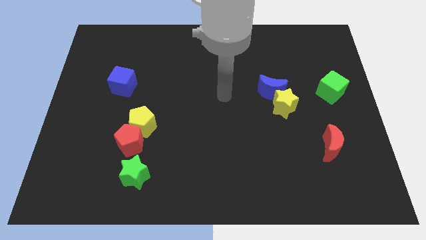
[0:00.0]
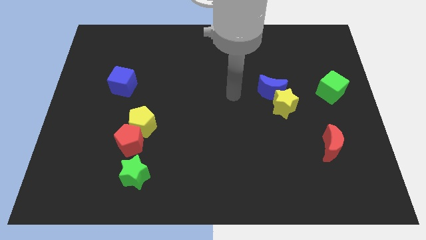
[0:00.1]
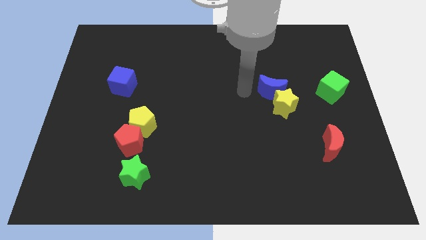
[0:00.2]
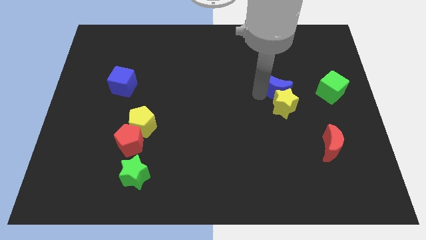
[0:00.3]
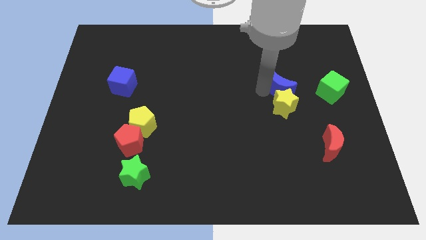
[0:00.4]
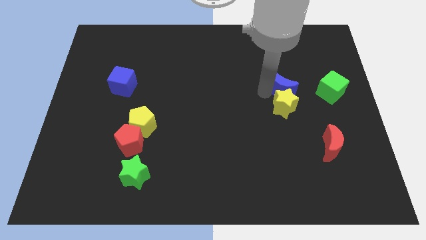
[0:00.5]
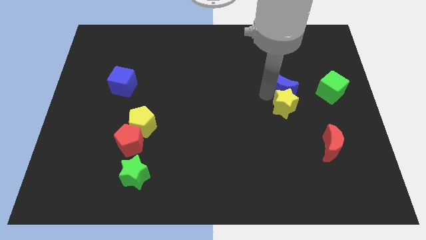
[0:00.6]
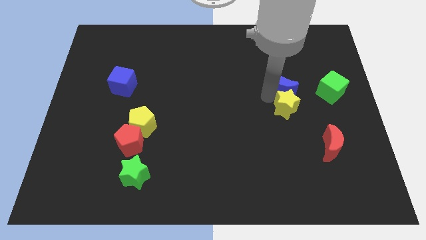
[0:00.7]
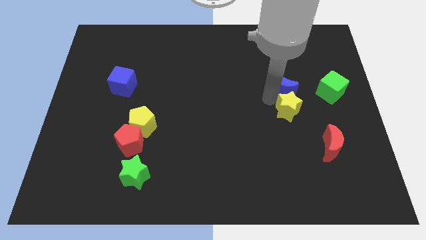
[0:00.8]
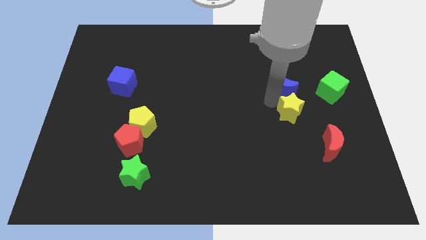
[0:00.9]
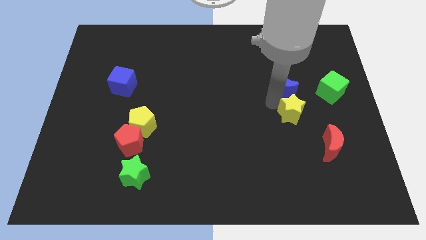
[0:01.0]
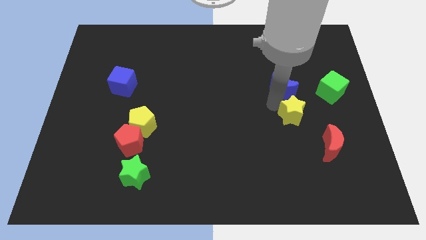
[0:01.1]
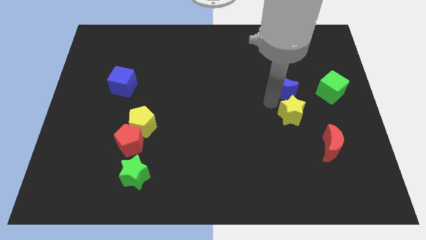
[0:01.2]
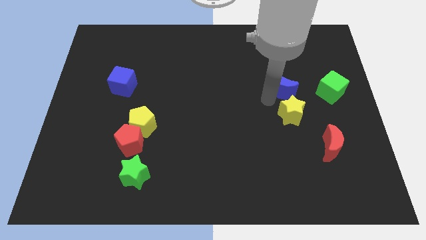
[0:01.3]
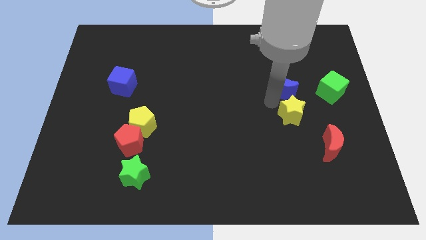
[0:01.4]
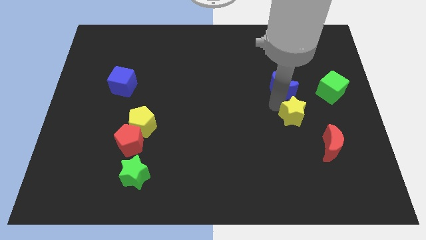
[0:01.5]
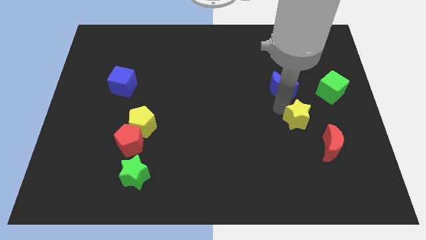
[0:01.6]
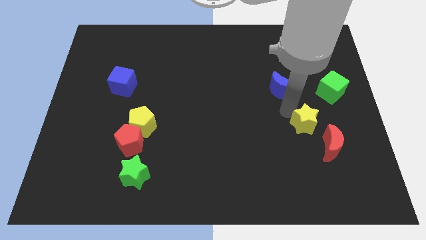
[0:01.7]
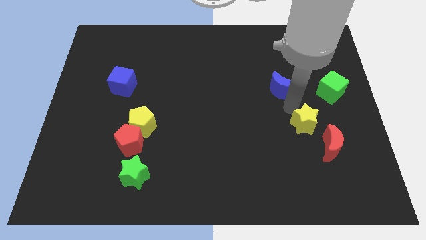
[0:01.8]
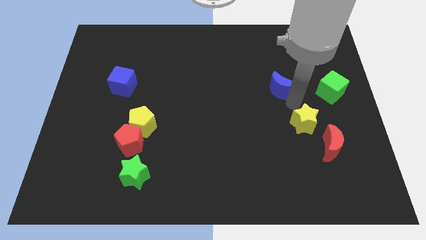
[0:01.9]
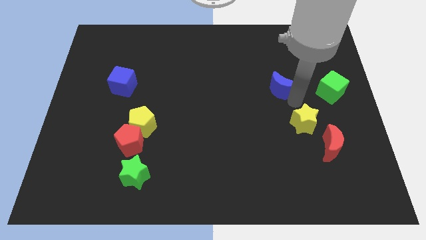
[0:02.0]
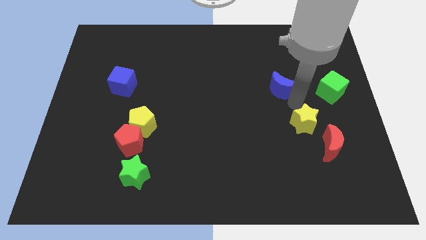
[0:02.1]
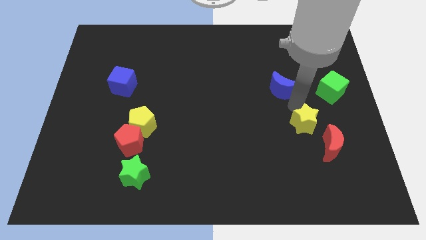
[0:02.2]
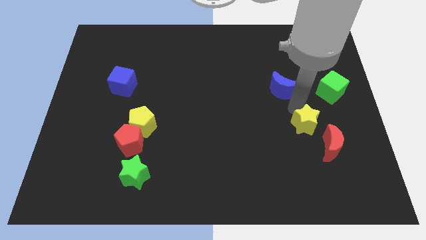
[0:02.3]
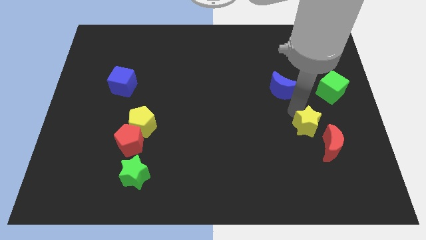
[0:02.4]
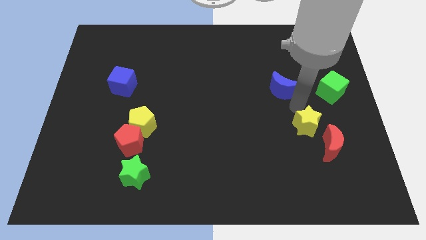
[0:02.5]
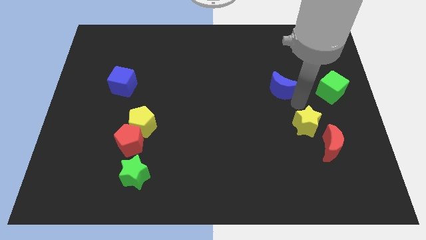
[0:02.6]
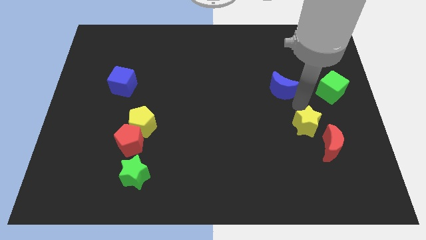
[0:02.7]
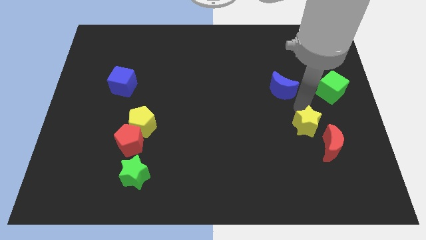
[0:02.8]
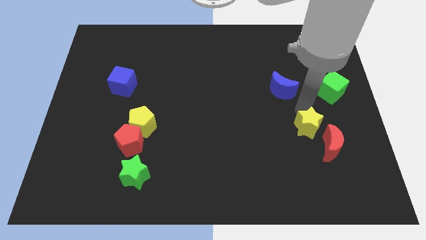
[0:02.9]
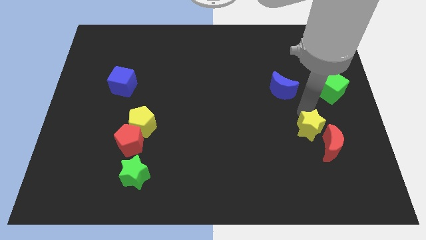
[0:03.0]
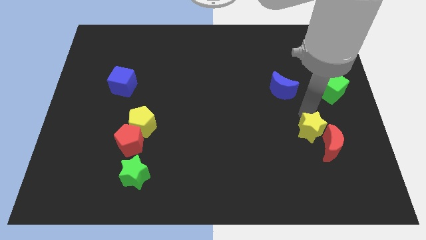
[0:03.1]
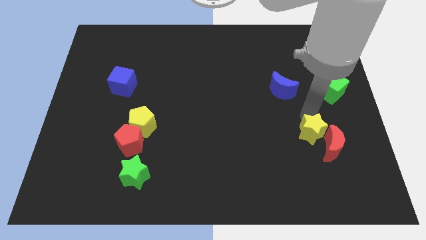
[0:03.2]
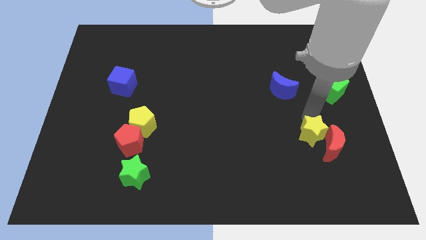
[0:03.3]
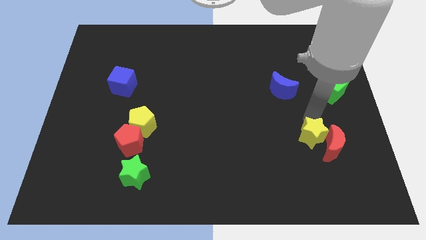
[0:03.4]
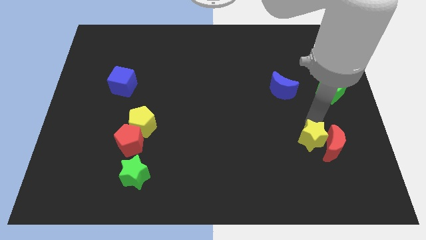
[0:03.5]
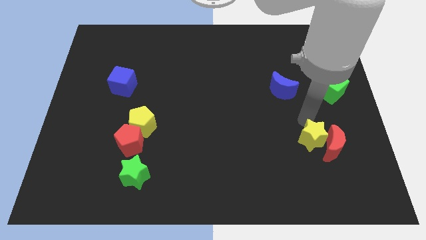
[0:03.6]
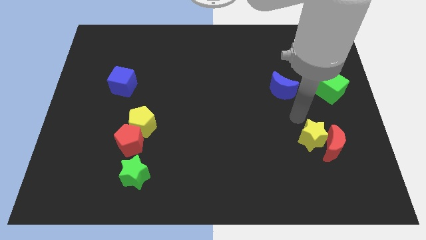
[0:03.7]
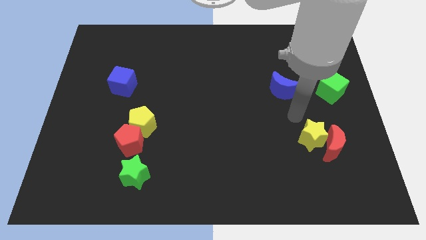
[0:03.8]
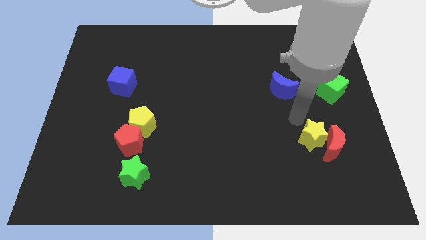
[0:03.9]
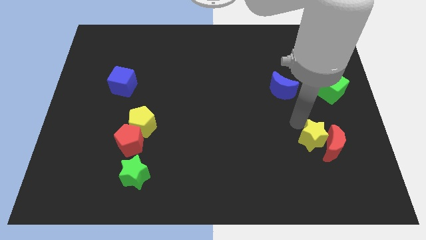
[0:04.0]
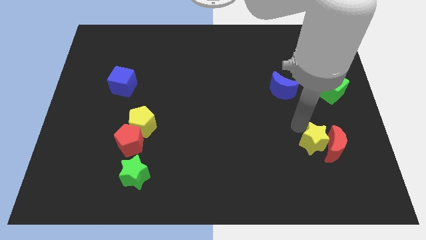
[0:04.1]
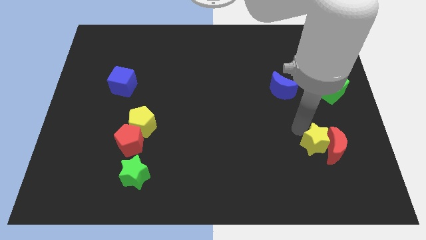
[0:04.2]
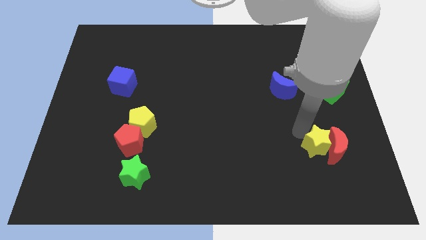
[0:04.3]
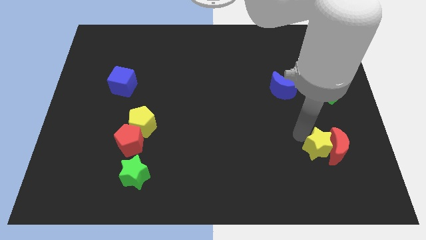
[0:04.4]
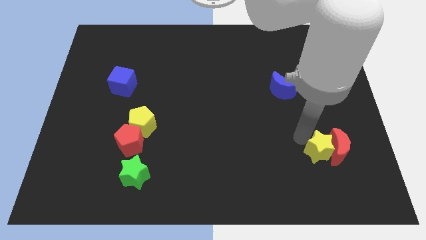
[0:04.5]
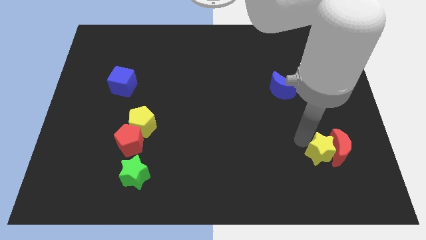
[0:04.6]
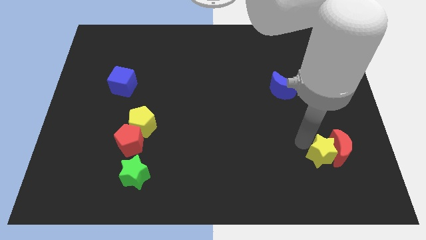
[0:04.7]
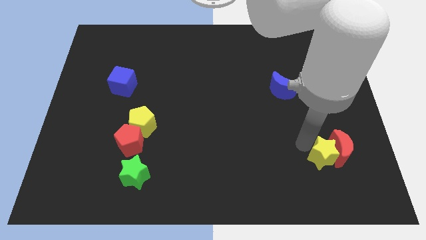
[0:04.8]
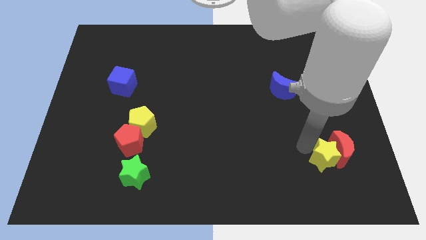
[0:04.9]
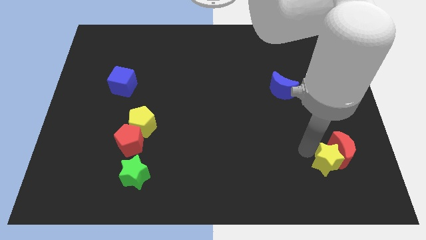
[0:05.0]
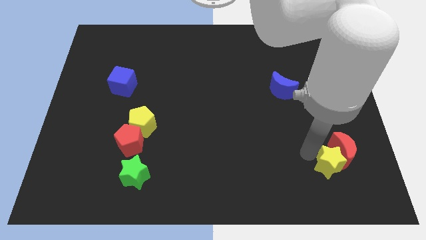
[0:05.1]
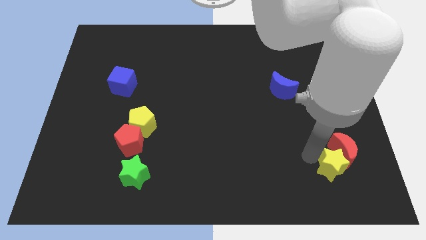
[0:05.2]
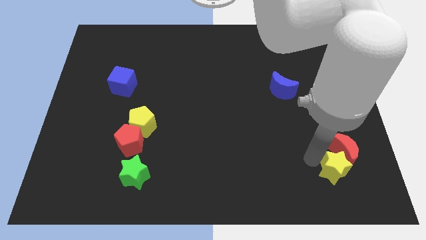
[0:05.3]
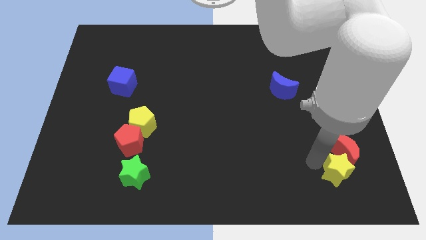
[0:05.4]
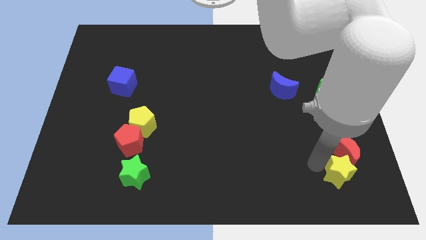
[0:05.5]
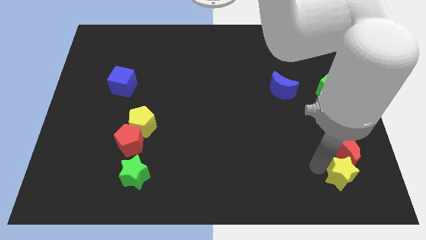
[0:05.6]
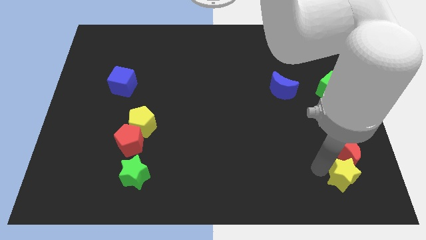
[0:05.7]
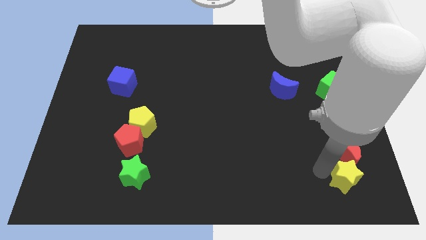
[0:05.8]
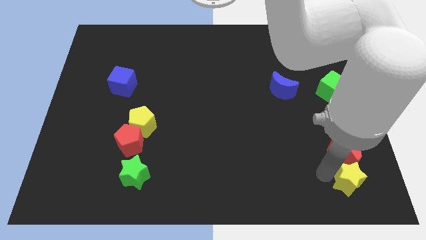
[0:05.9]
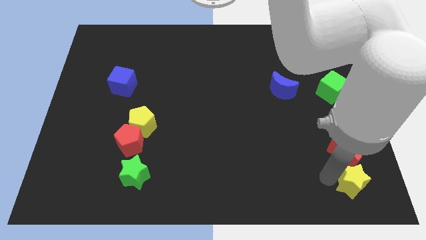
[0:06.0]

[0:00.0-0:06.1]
move the yellow star to the bottom right of the board
